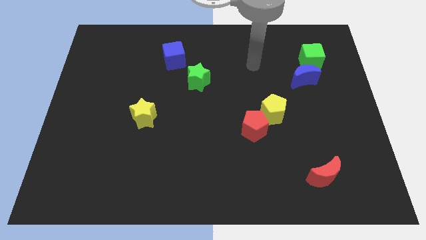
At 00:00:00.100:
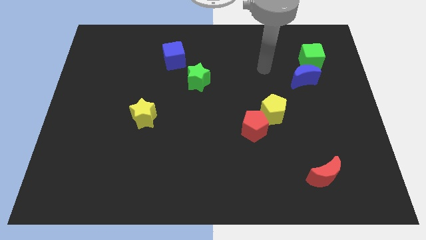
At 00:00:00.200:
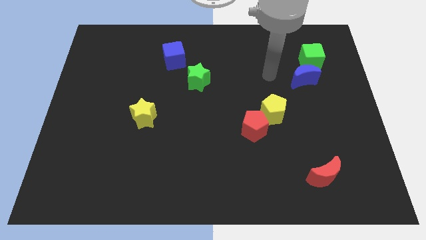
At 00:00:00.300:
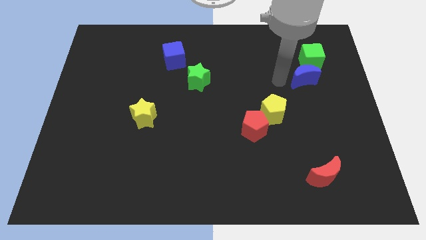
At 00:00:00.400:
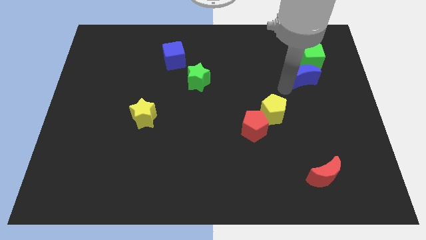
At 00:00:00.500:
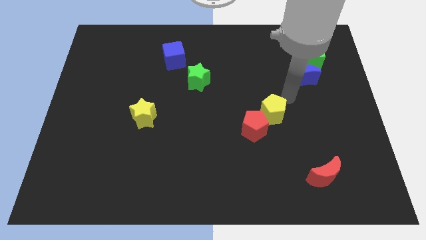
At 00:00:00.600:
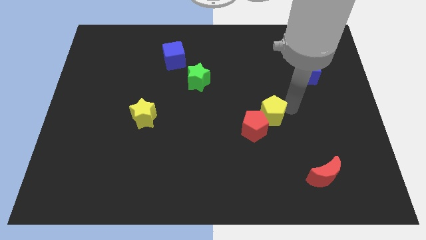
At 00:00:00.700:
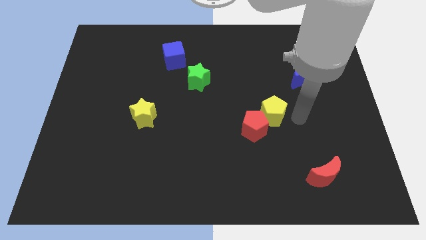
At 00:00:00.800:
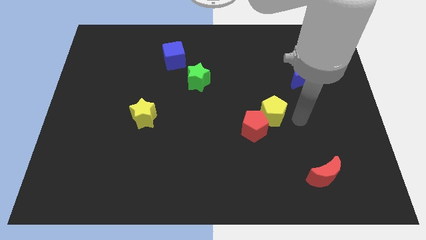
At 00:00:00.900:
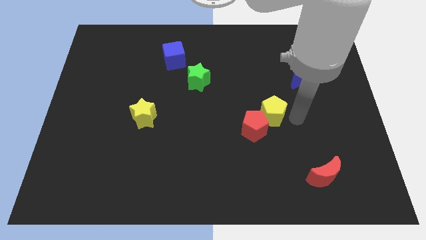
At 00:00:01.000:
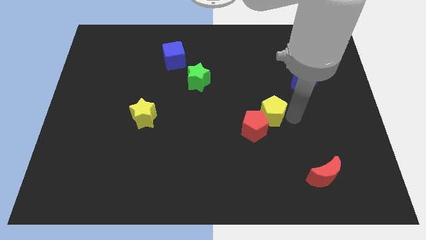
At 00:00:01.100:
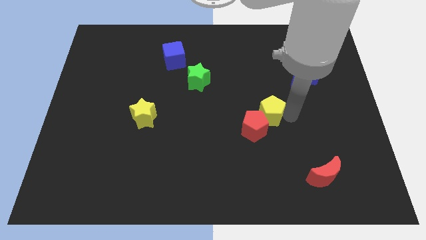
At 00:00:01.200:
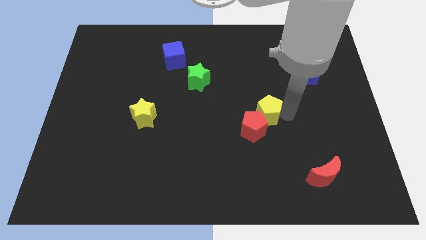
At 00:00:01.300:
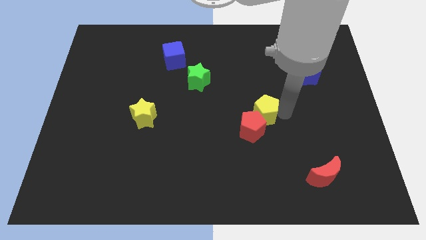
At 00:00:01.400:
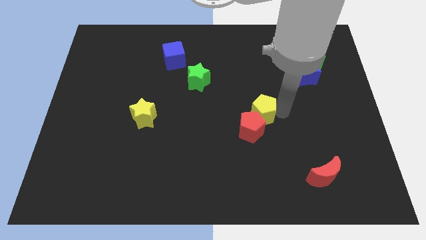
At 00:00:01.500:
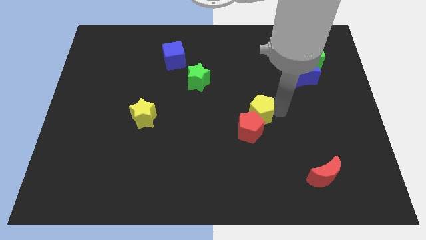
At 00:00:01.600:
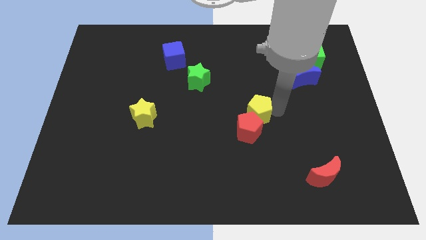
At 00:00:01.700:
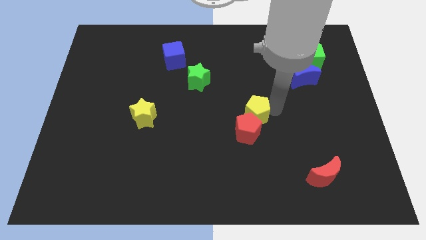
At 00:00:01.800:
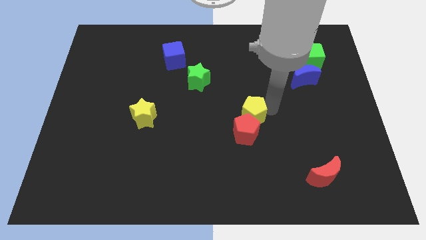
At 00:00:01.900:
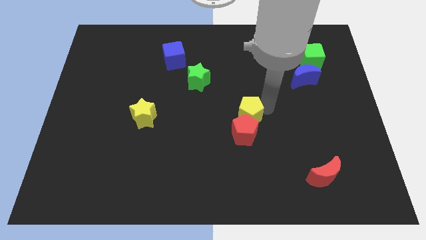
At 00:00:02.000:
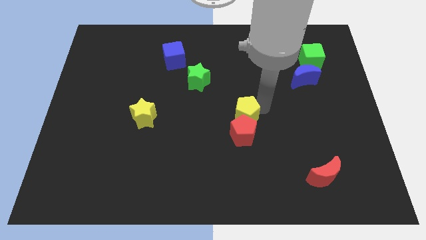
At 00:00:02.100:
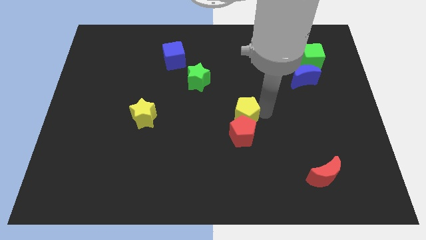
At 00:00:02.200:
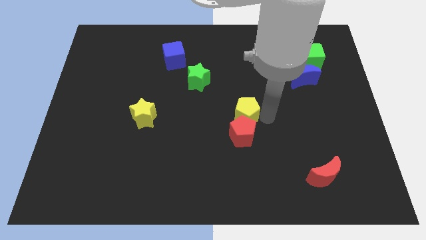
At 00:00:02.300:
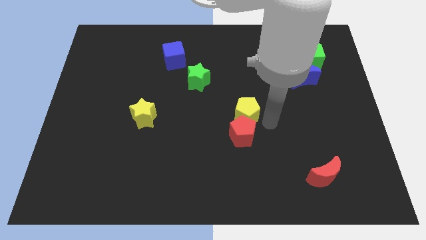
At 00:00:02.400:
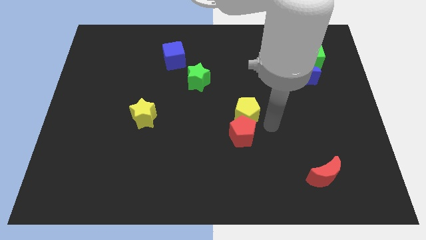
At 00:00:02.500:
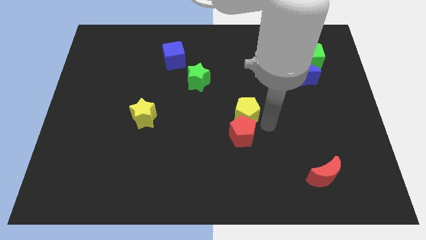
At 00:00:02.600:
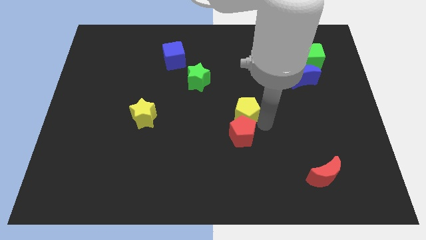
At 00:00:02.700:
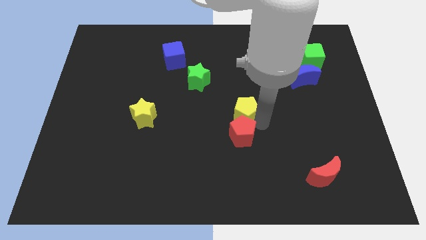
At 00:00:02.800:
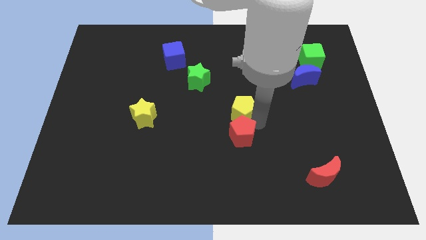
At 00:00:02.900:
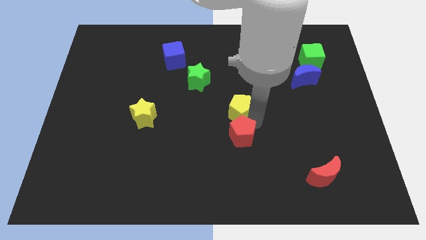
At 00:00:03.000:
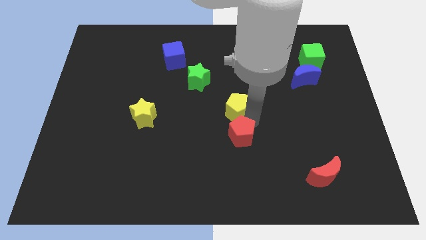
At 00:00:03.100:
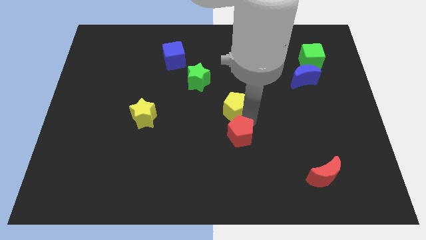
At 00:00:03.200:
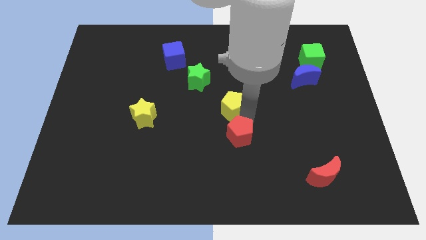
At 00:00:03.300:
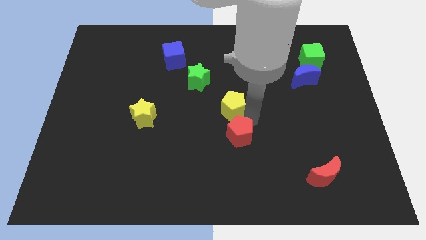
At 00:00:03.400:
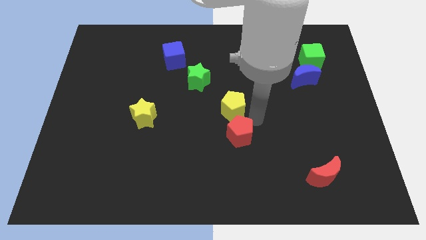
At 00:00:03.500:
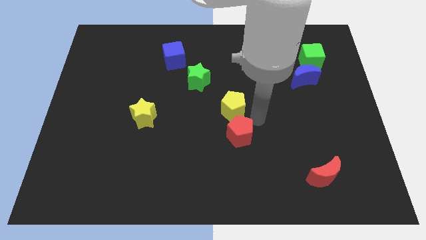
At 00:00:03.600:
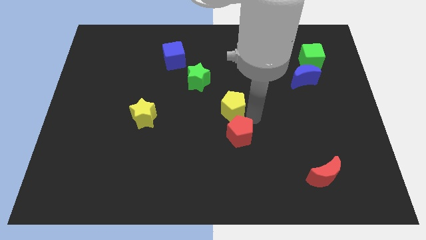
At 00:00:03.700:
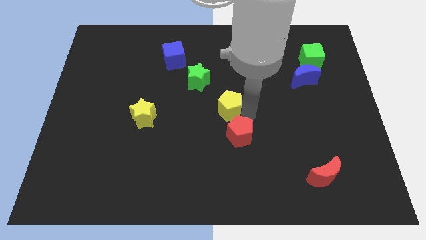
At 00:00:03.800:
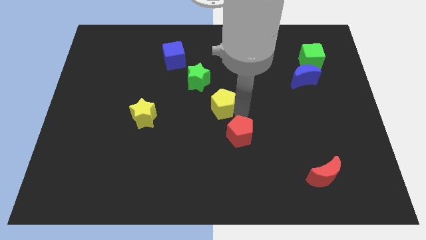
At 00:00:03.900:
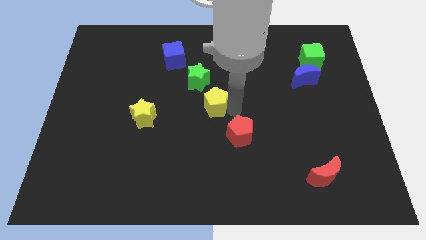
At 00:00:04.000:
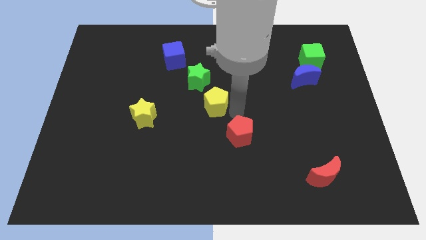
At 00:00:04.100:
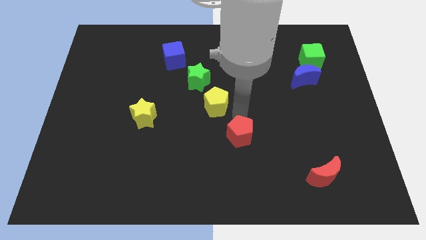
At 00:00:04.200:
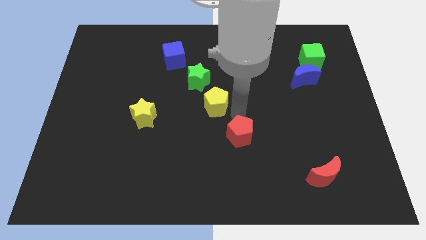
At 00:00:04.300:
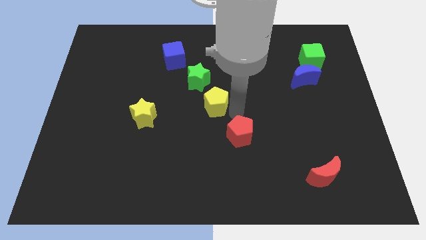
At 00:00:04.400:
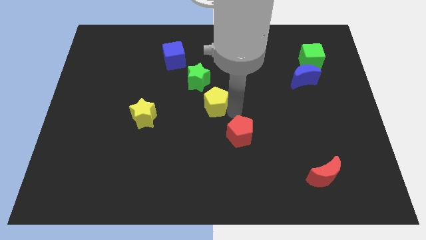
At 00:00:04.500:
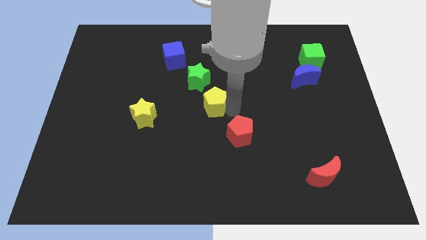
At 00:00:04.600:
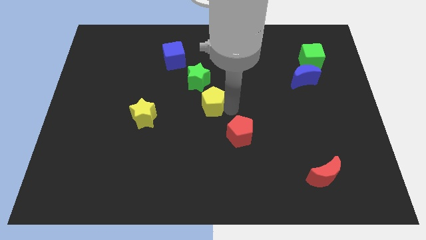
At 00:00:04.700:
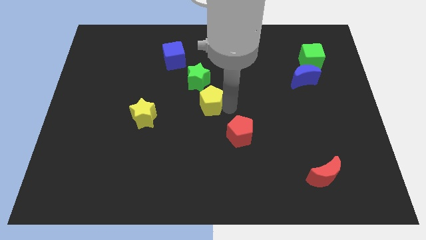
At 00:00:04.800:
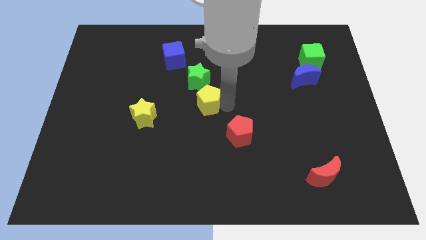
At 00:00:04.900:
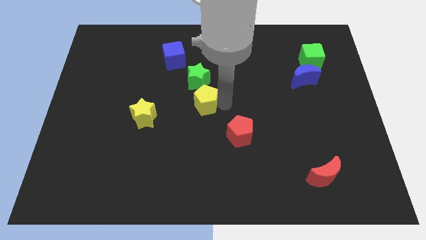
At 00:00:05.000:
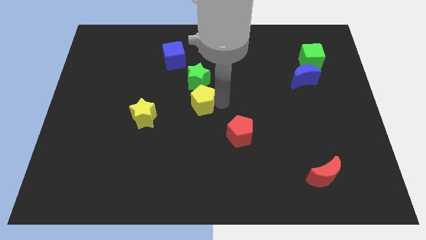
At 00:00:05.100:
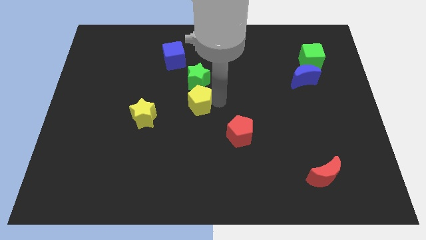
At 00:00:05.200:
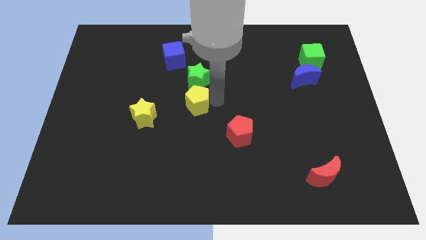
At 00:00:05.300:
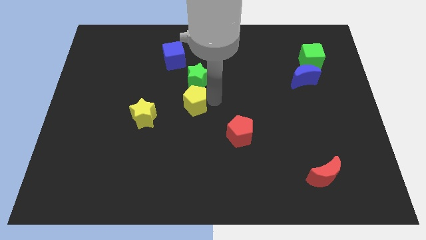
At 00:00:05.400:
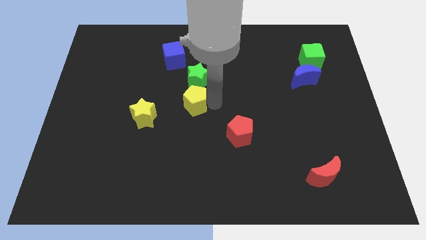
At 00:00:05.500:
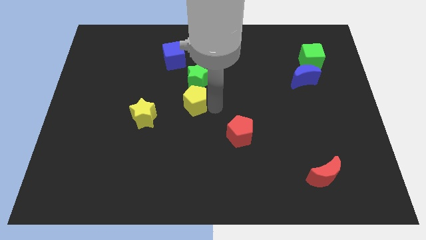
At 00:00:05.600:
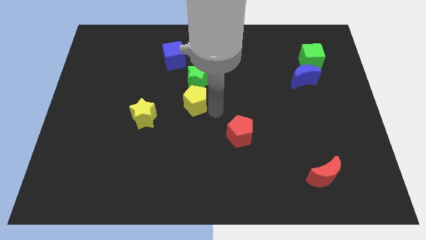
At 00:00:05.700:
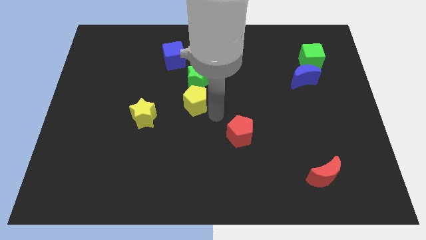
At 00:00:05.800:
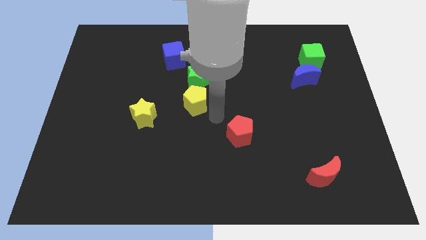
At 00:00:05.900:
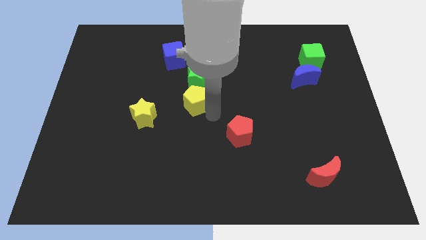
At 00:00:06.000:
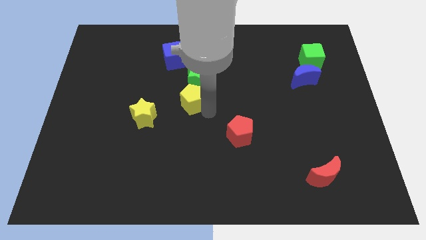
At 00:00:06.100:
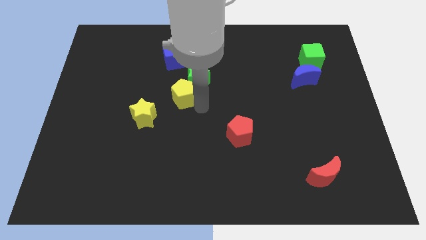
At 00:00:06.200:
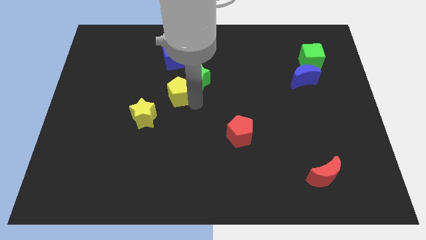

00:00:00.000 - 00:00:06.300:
move the yellow pentagon to the left side of the green star

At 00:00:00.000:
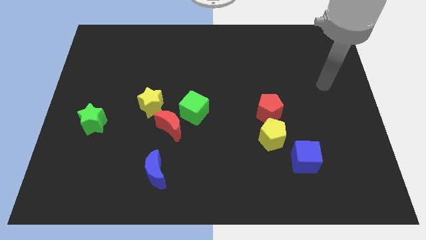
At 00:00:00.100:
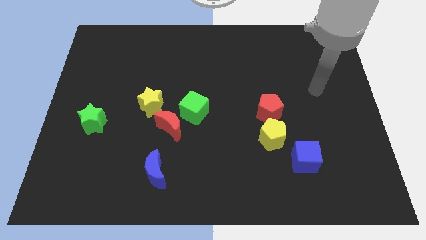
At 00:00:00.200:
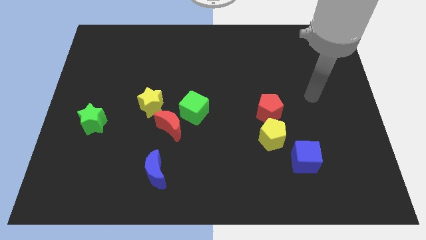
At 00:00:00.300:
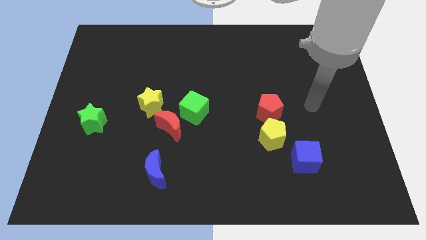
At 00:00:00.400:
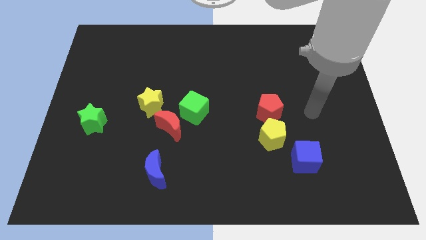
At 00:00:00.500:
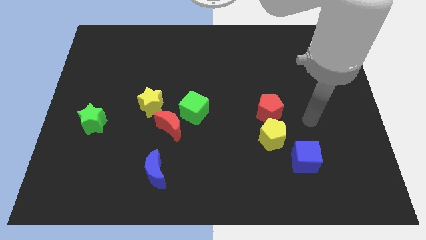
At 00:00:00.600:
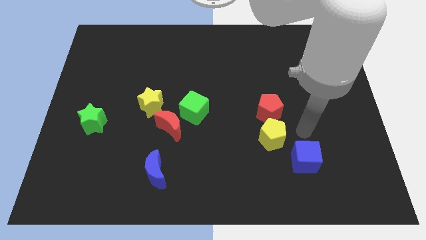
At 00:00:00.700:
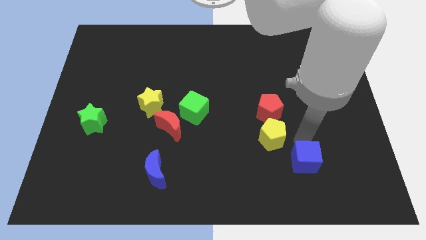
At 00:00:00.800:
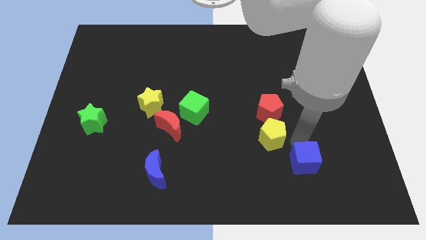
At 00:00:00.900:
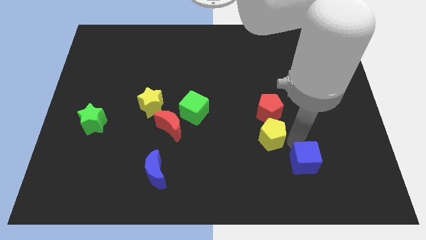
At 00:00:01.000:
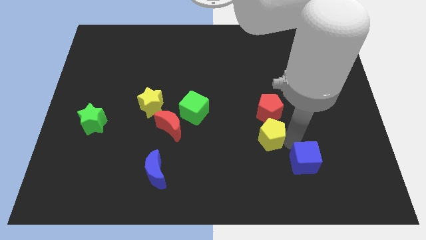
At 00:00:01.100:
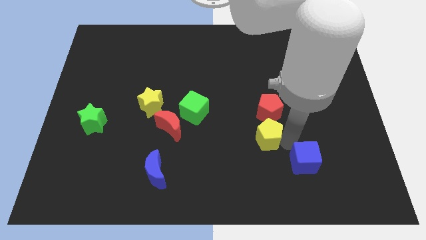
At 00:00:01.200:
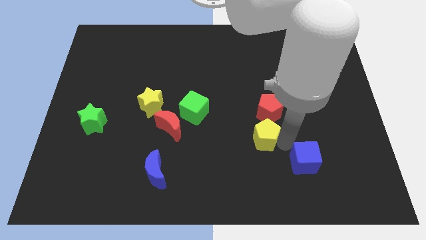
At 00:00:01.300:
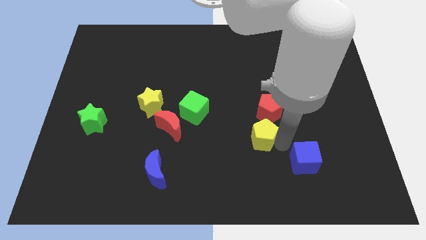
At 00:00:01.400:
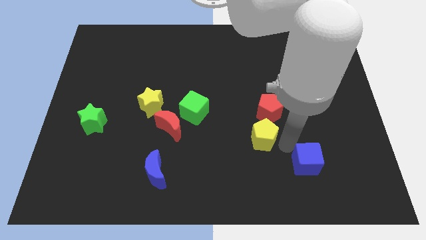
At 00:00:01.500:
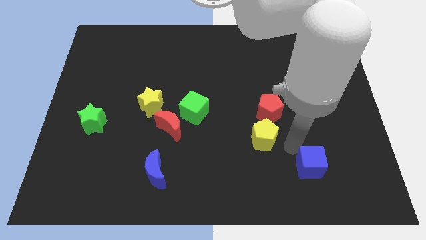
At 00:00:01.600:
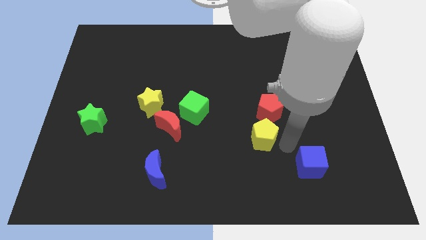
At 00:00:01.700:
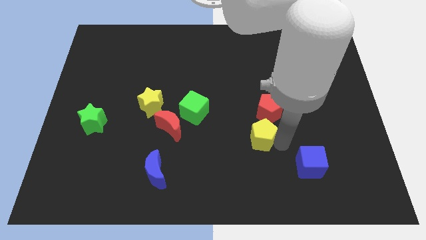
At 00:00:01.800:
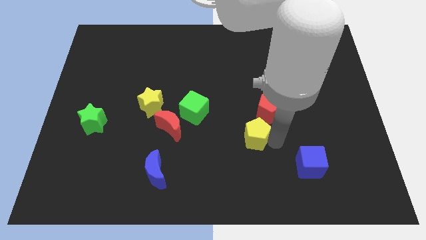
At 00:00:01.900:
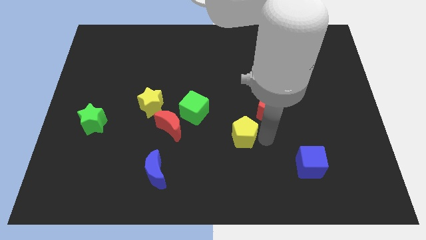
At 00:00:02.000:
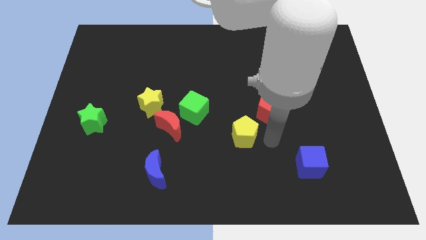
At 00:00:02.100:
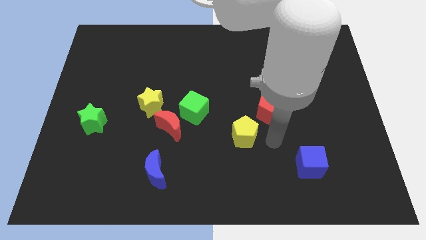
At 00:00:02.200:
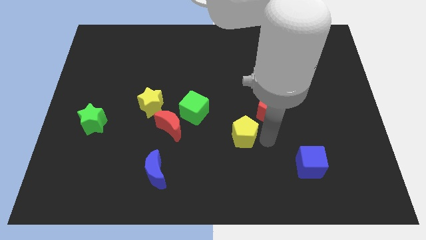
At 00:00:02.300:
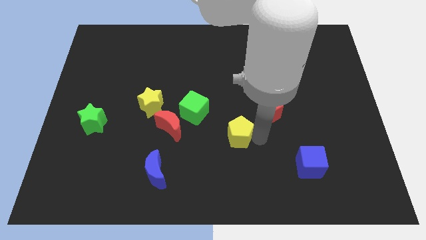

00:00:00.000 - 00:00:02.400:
push the yellow pentagon to the bottom right side of the green cube
